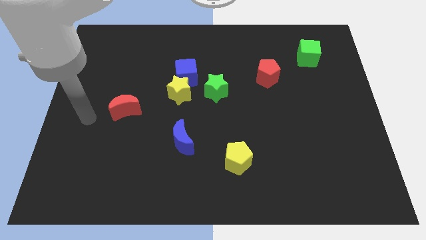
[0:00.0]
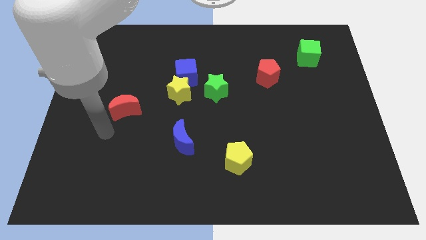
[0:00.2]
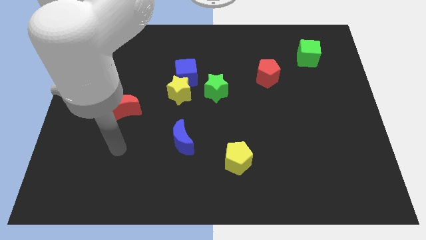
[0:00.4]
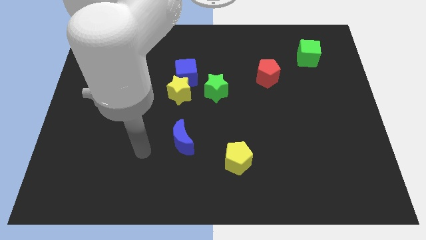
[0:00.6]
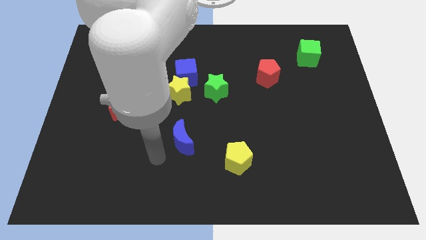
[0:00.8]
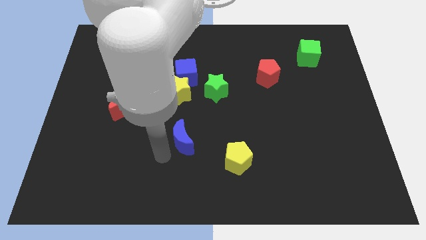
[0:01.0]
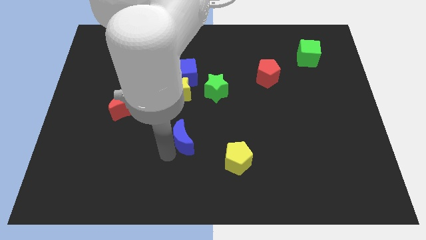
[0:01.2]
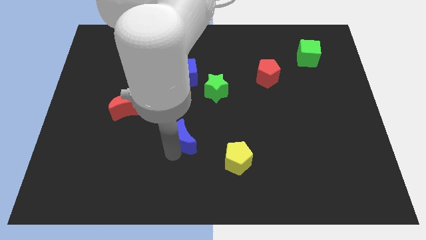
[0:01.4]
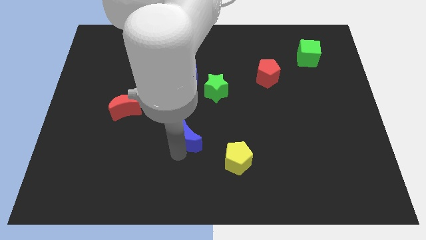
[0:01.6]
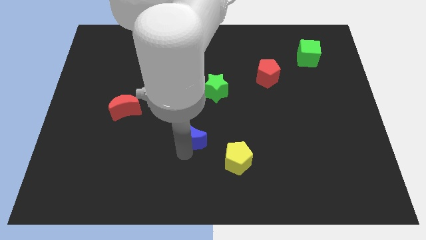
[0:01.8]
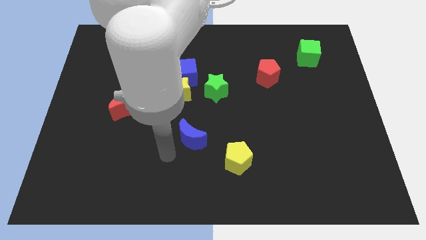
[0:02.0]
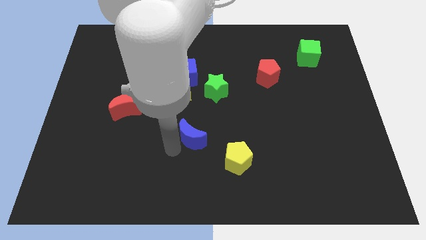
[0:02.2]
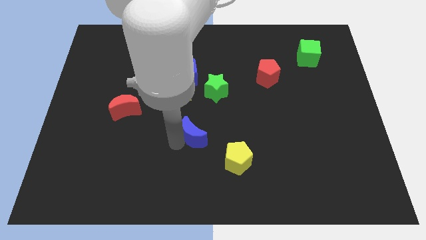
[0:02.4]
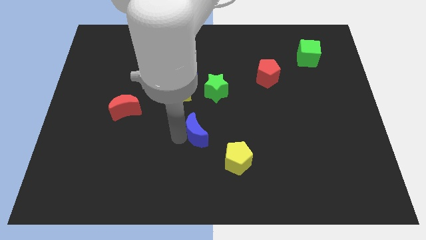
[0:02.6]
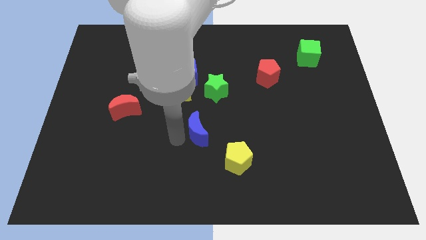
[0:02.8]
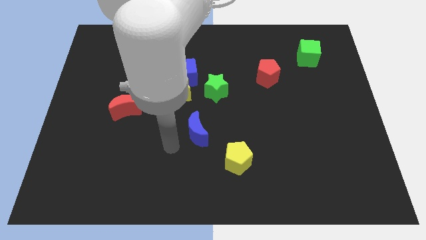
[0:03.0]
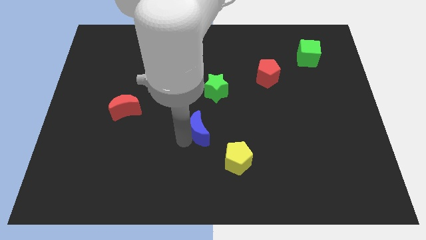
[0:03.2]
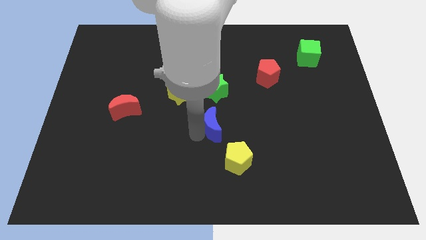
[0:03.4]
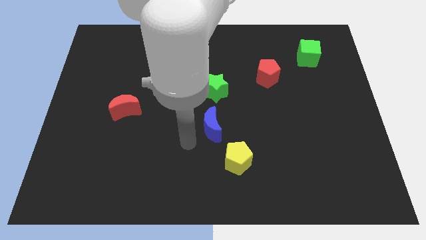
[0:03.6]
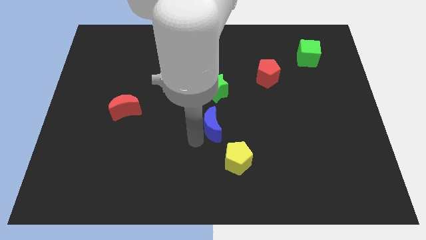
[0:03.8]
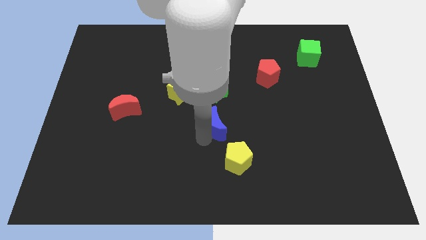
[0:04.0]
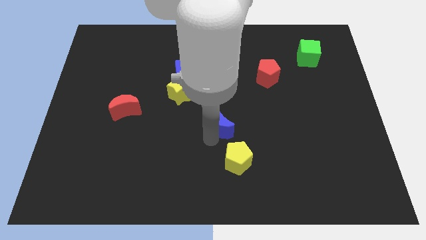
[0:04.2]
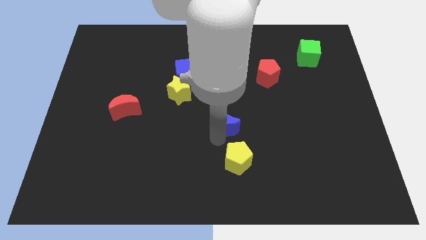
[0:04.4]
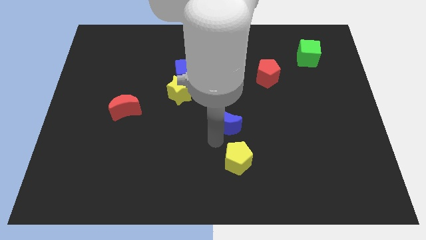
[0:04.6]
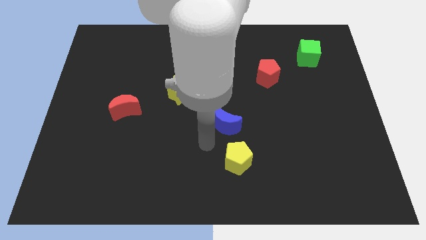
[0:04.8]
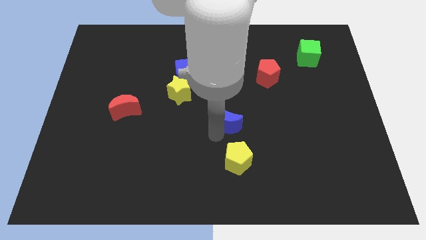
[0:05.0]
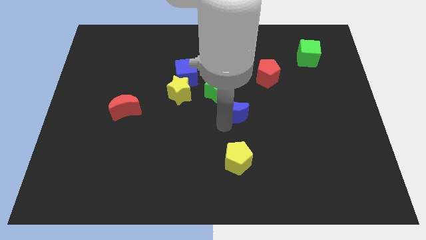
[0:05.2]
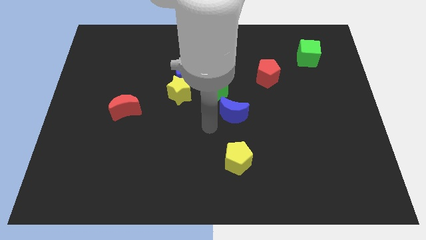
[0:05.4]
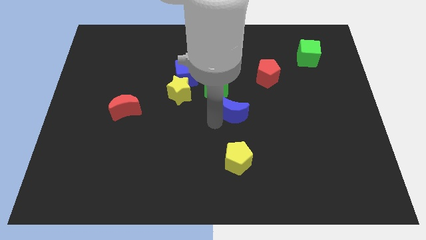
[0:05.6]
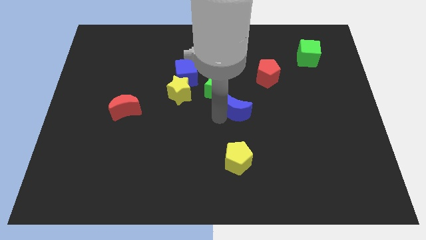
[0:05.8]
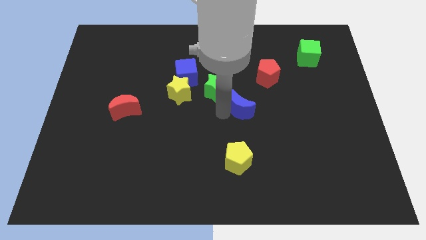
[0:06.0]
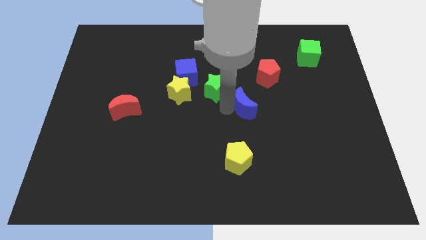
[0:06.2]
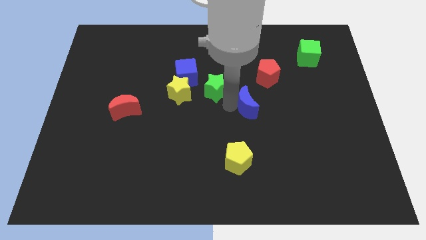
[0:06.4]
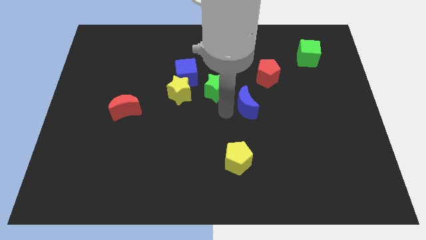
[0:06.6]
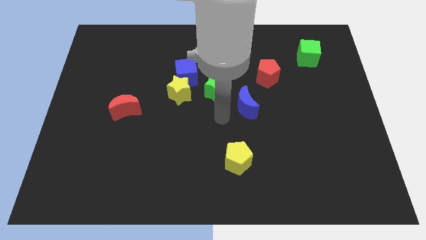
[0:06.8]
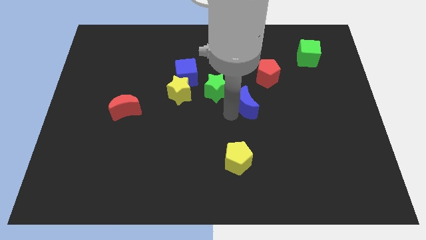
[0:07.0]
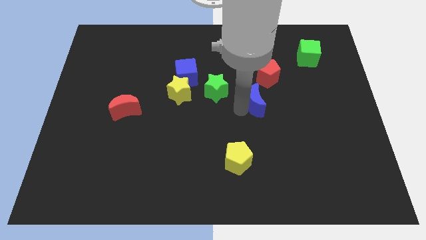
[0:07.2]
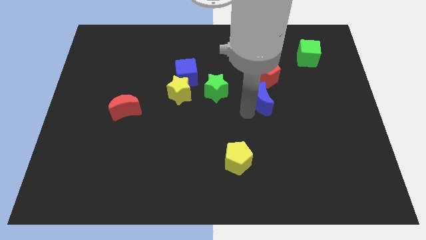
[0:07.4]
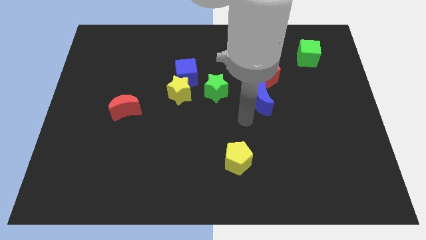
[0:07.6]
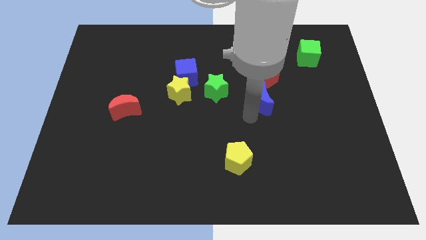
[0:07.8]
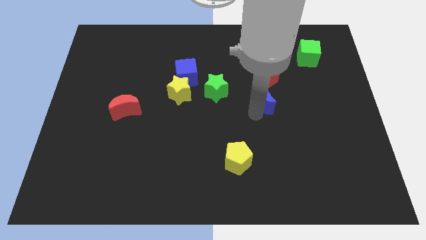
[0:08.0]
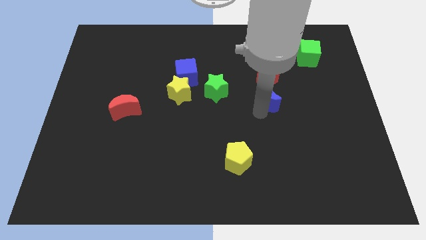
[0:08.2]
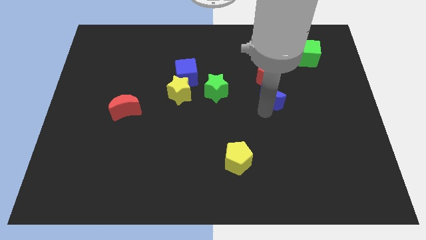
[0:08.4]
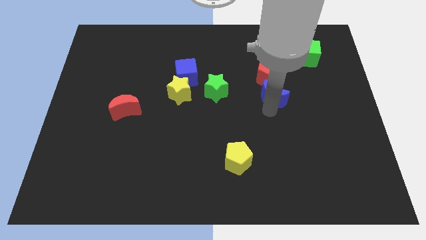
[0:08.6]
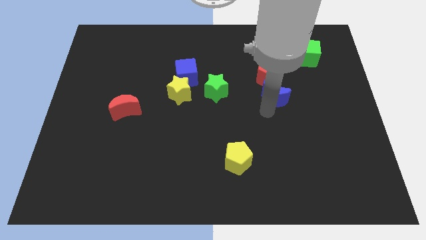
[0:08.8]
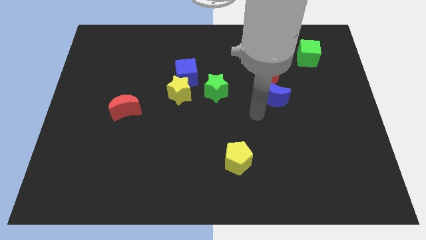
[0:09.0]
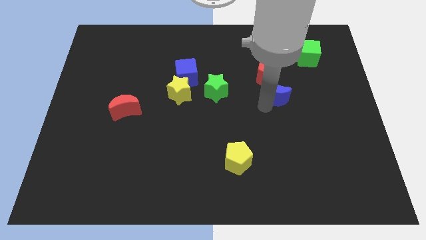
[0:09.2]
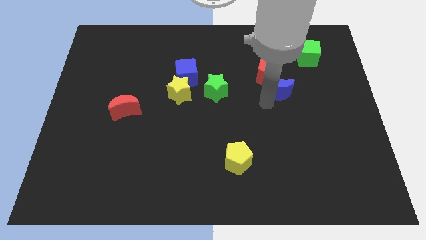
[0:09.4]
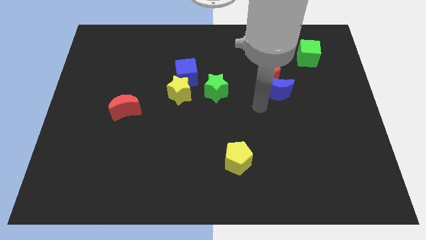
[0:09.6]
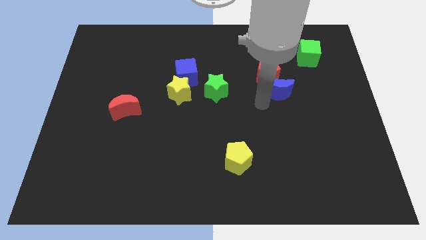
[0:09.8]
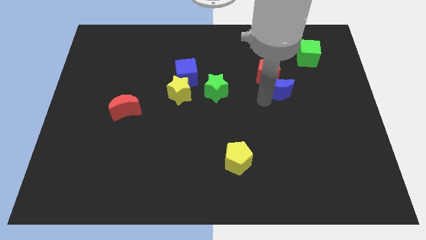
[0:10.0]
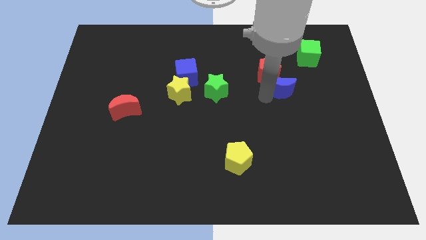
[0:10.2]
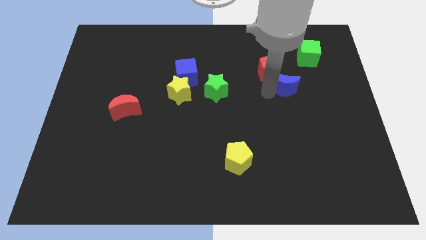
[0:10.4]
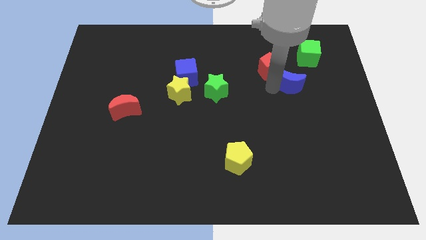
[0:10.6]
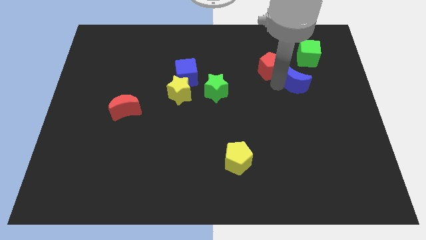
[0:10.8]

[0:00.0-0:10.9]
slide the blue moon just right of the red pentagon
